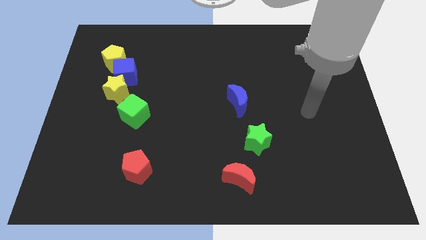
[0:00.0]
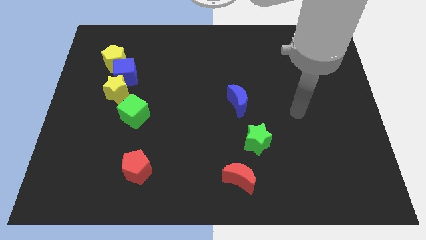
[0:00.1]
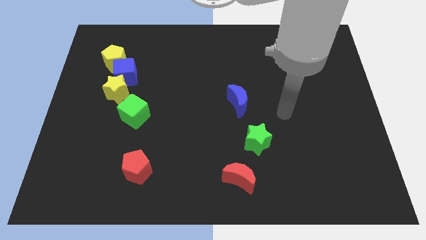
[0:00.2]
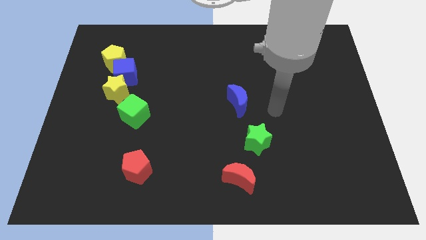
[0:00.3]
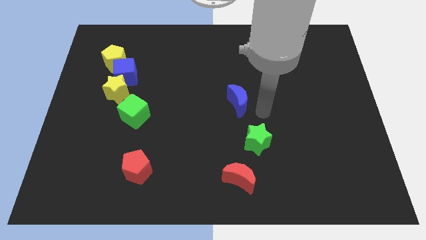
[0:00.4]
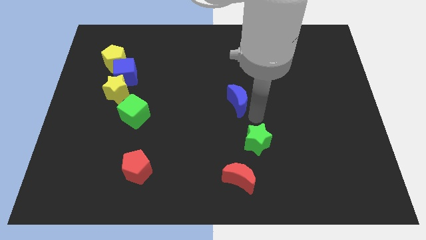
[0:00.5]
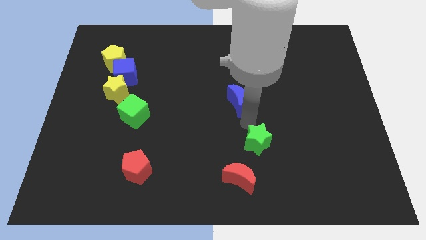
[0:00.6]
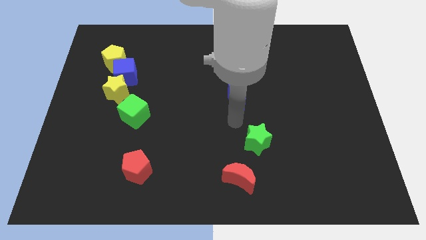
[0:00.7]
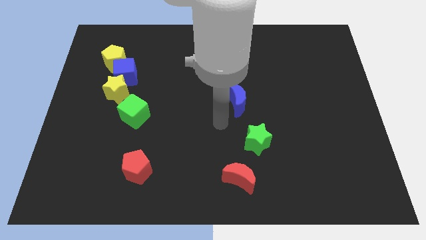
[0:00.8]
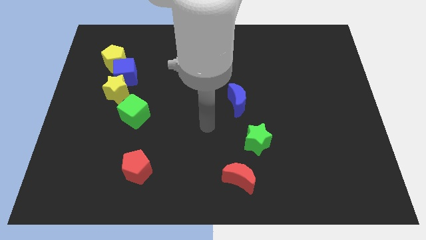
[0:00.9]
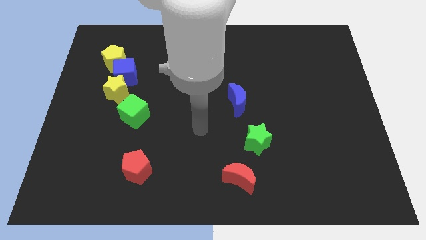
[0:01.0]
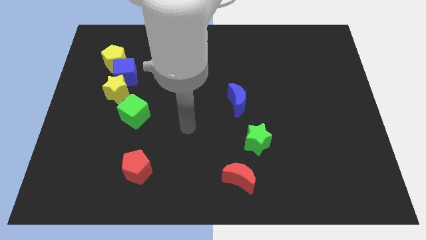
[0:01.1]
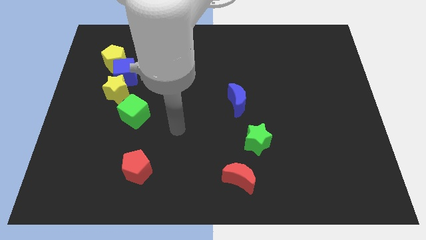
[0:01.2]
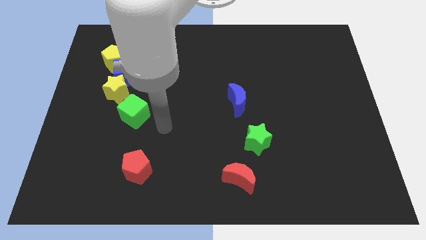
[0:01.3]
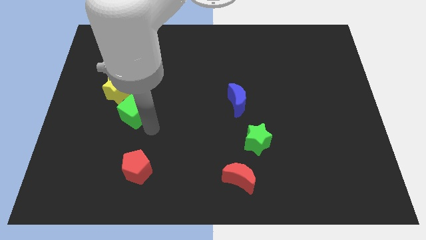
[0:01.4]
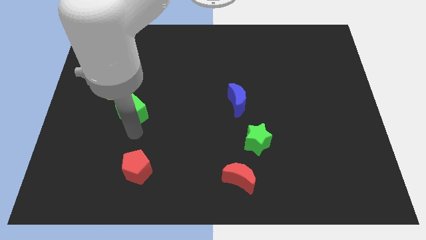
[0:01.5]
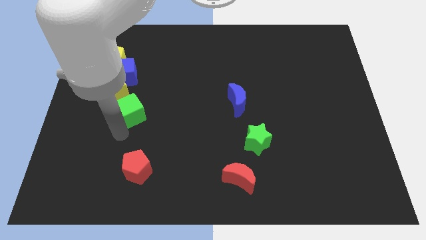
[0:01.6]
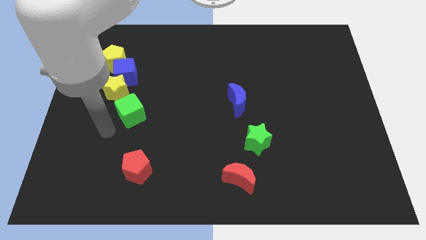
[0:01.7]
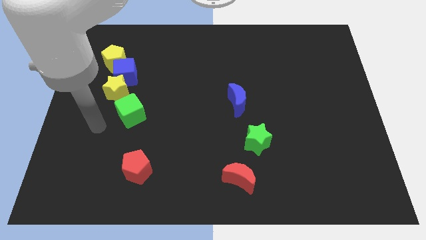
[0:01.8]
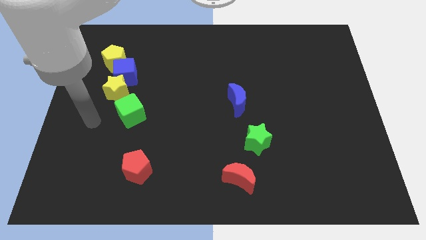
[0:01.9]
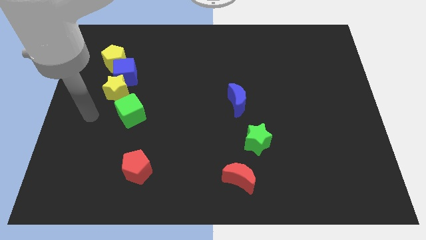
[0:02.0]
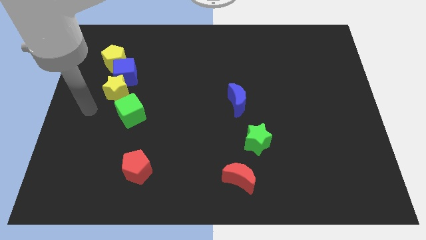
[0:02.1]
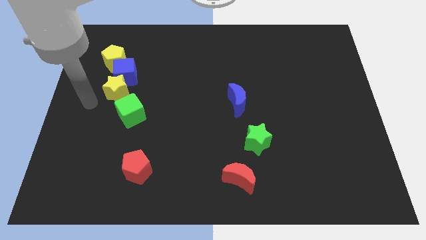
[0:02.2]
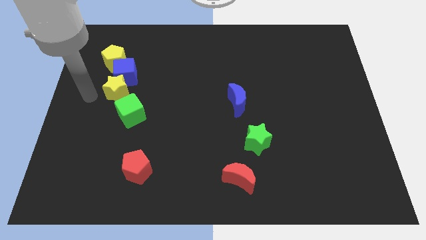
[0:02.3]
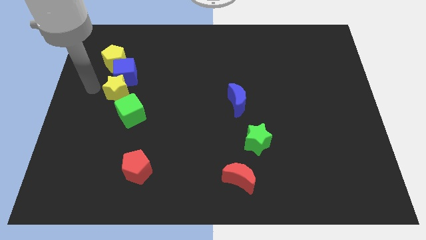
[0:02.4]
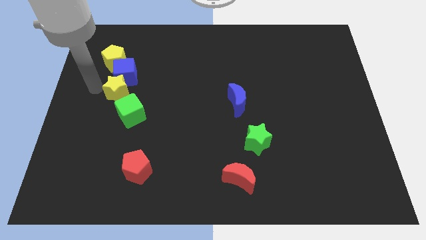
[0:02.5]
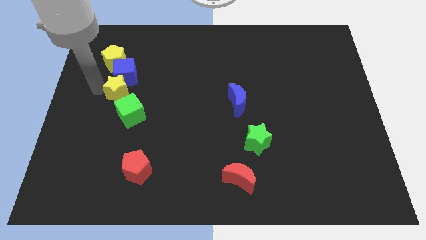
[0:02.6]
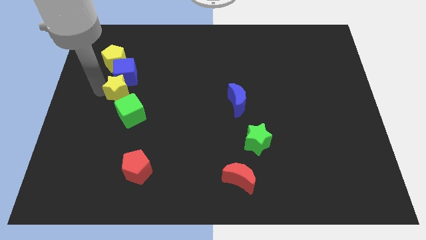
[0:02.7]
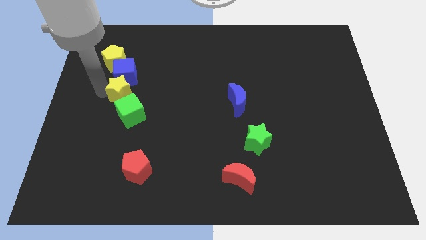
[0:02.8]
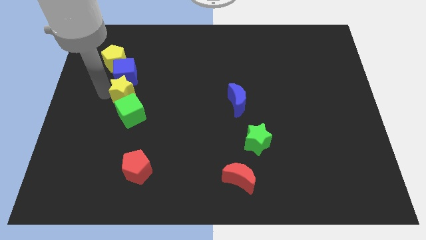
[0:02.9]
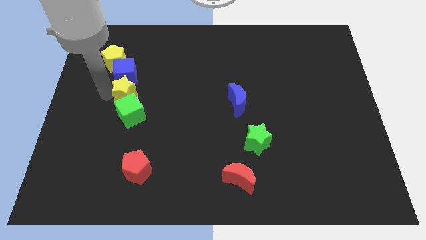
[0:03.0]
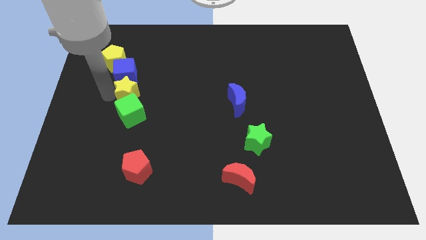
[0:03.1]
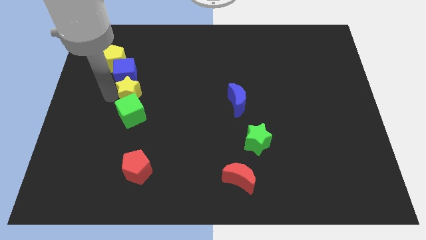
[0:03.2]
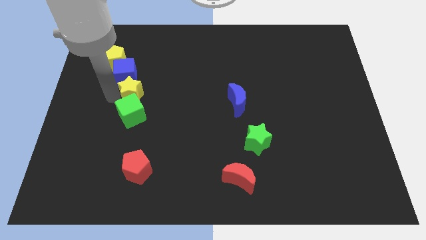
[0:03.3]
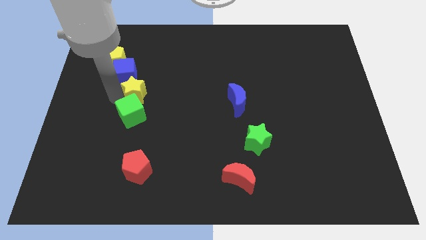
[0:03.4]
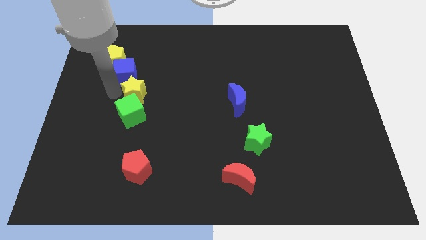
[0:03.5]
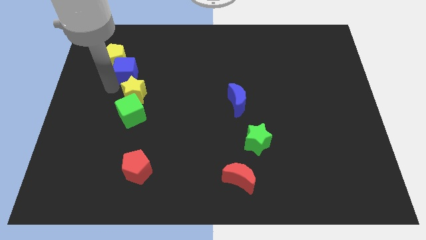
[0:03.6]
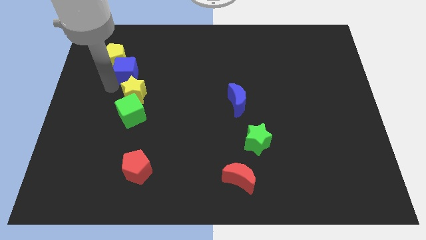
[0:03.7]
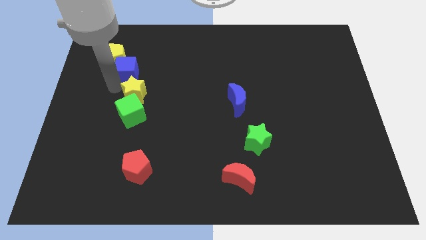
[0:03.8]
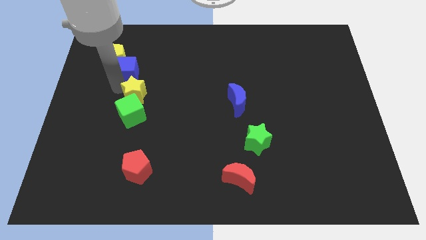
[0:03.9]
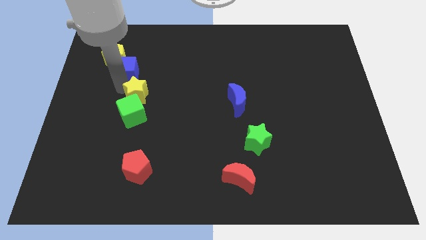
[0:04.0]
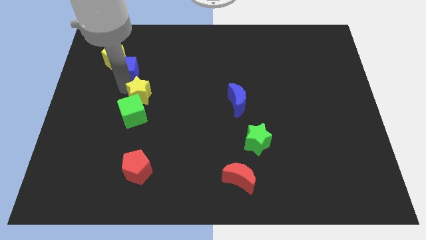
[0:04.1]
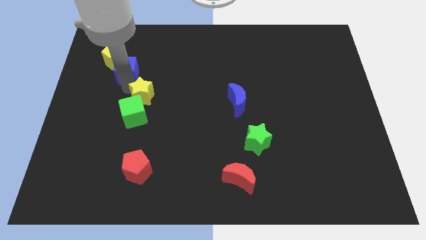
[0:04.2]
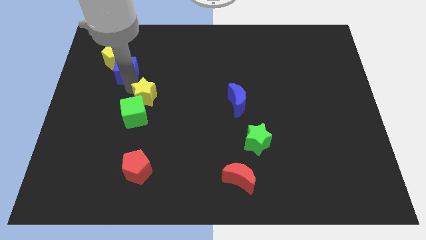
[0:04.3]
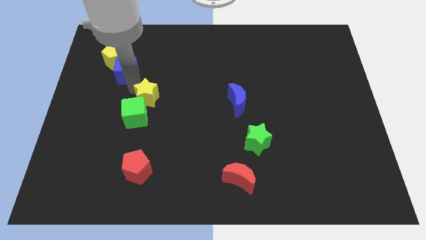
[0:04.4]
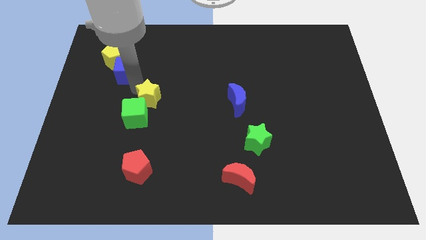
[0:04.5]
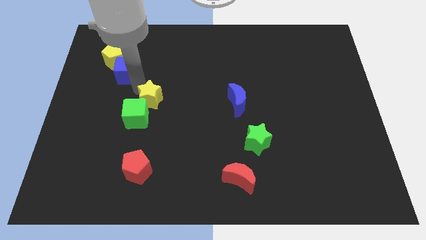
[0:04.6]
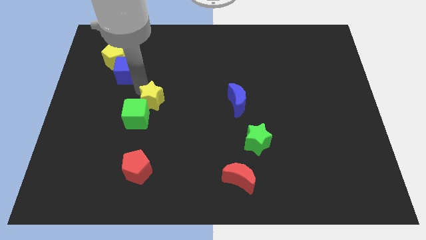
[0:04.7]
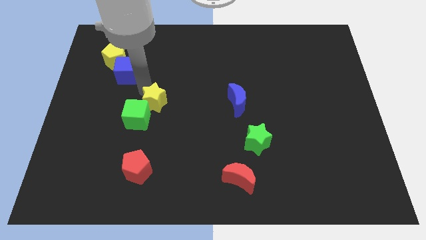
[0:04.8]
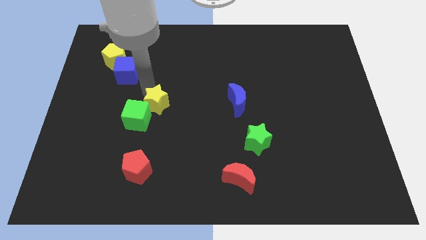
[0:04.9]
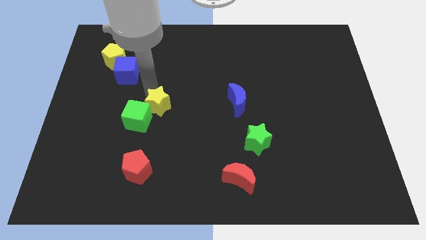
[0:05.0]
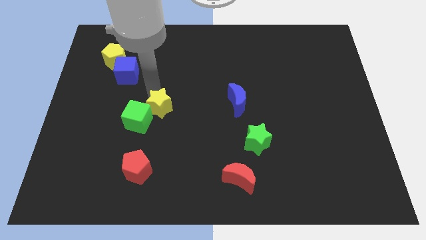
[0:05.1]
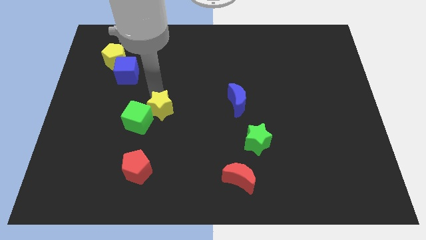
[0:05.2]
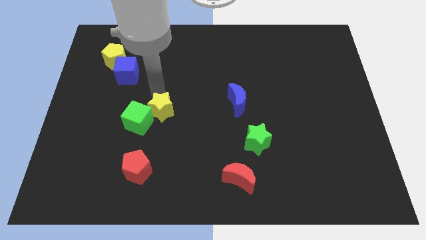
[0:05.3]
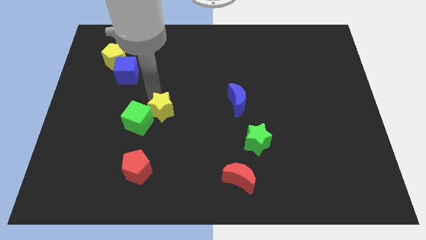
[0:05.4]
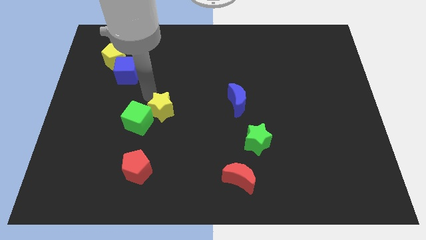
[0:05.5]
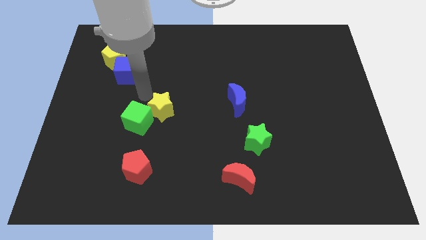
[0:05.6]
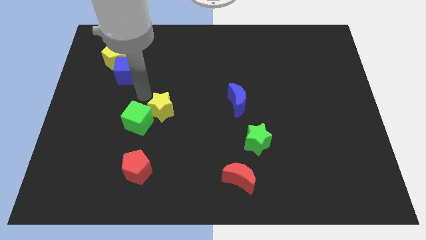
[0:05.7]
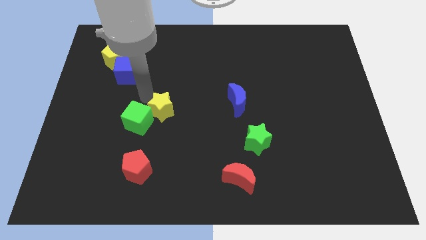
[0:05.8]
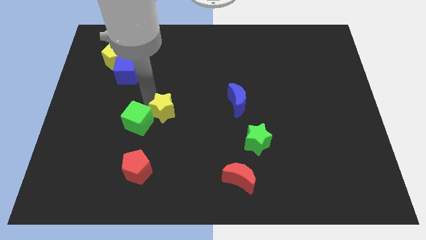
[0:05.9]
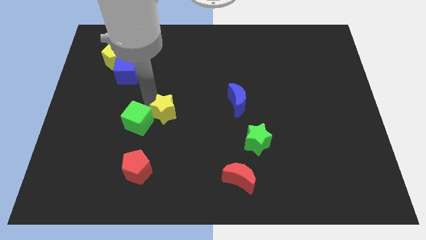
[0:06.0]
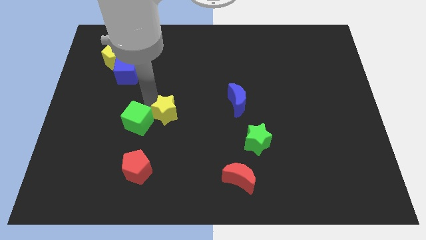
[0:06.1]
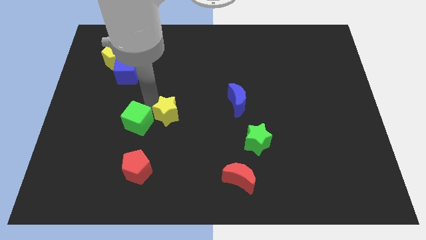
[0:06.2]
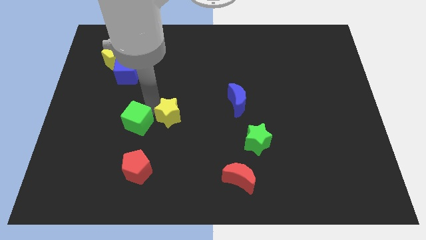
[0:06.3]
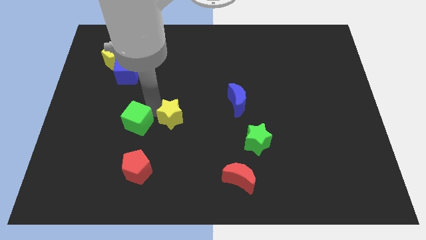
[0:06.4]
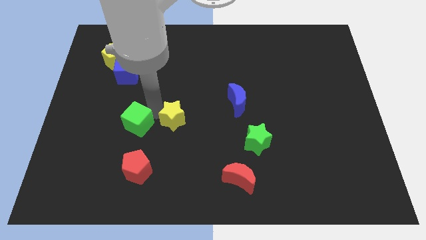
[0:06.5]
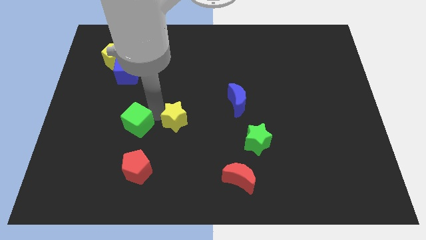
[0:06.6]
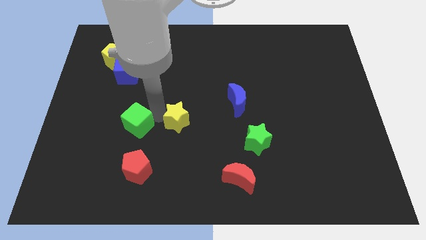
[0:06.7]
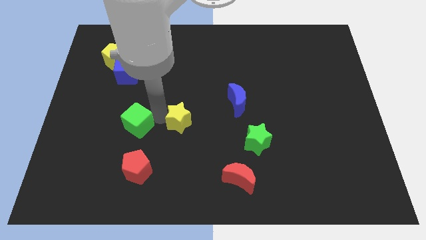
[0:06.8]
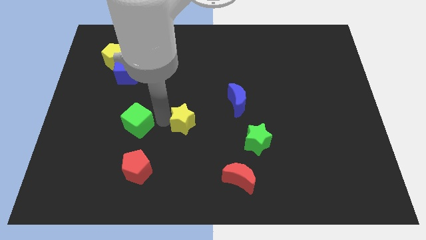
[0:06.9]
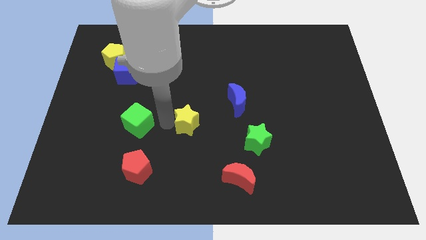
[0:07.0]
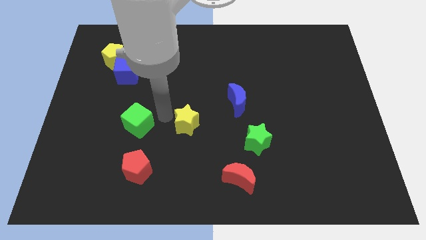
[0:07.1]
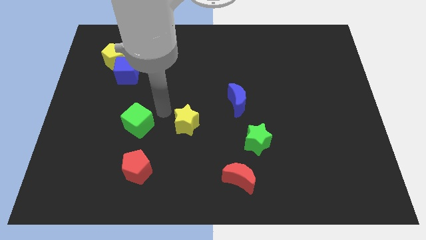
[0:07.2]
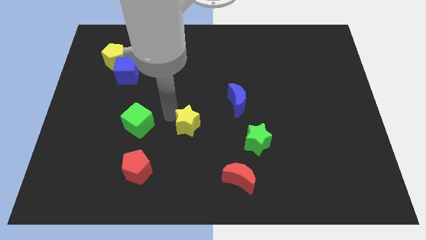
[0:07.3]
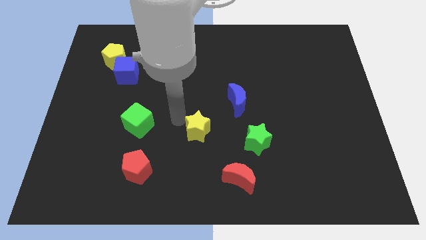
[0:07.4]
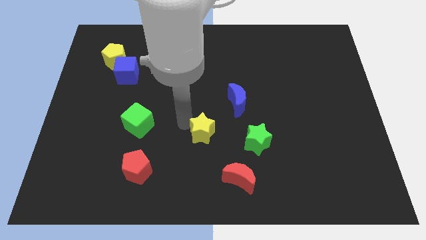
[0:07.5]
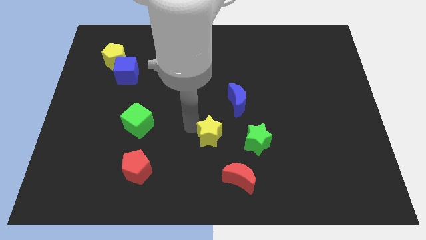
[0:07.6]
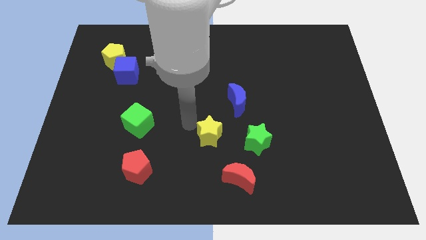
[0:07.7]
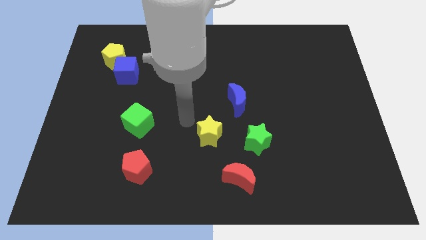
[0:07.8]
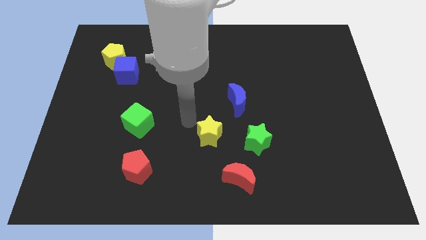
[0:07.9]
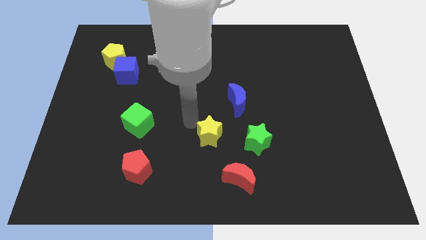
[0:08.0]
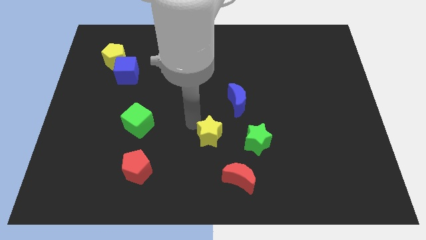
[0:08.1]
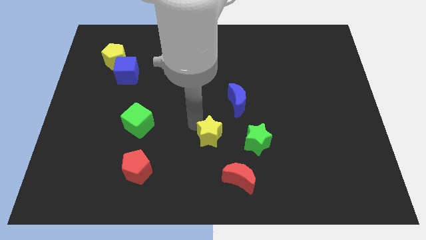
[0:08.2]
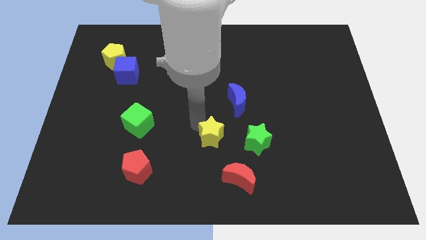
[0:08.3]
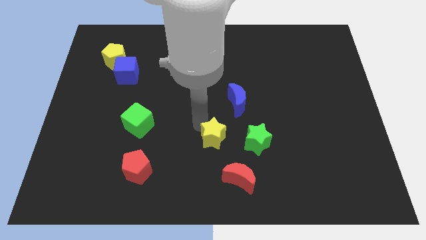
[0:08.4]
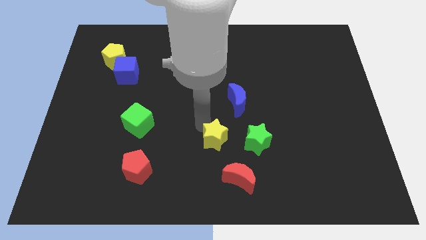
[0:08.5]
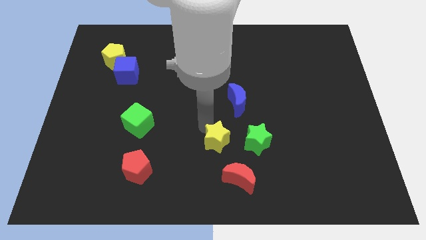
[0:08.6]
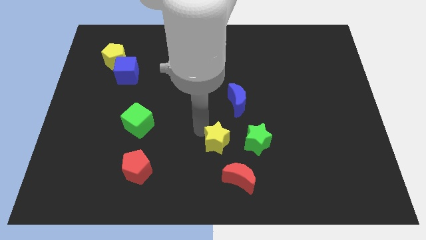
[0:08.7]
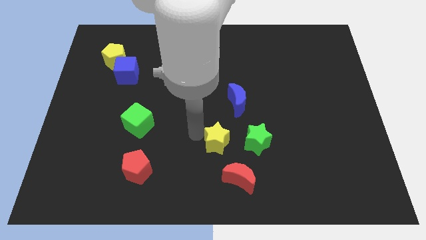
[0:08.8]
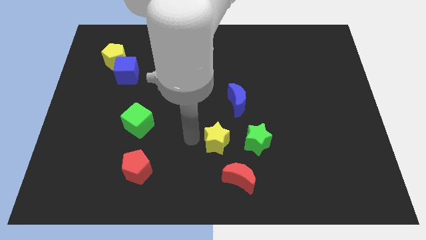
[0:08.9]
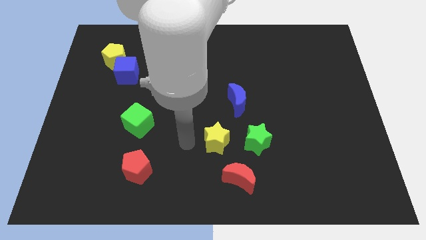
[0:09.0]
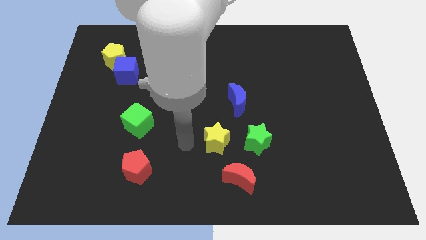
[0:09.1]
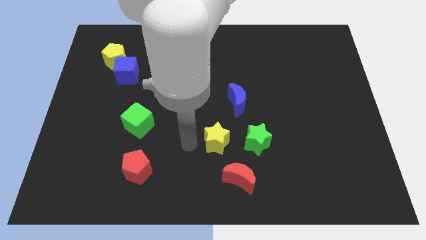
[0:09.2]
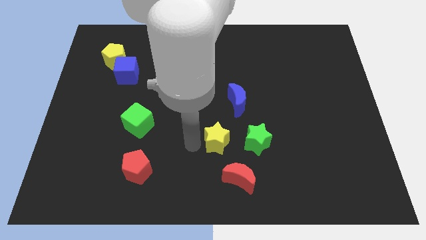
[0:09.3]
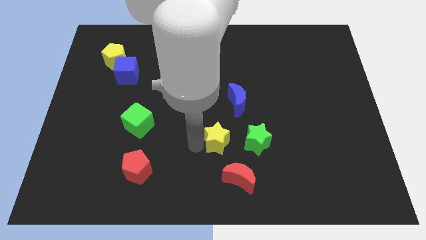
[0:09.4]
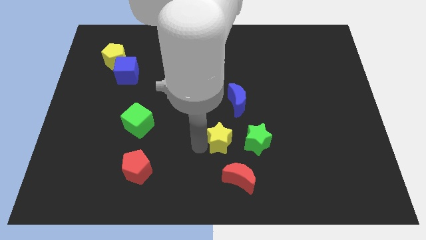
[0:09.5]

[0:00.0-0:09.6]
slide the yellow star to the bottom of the blue moon
